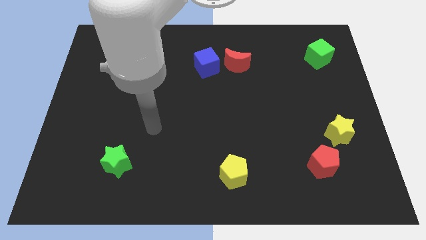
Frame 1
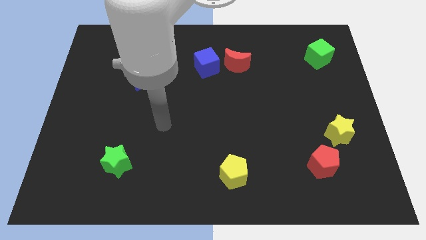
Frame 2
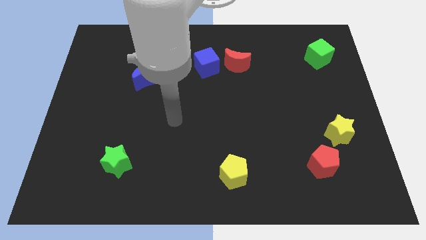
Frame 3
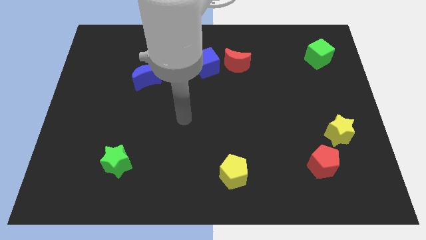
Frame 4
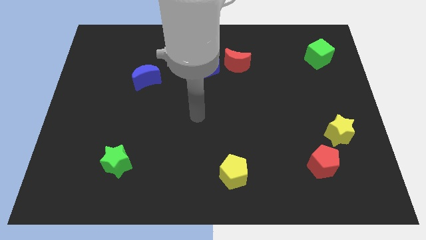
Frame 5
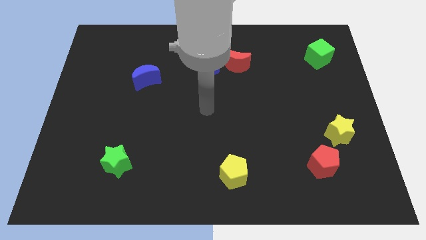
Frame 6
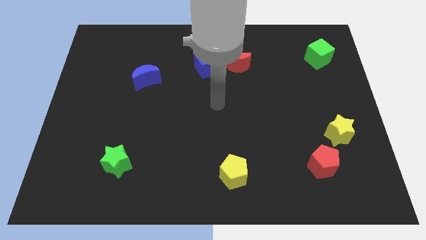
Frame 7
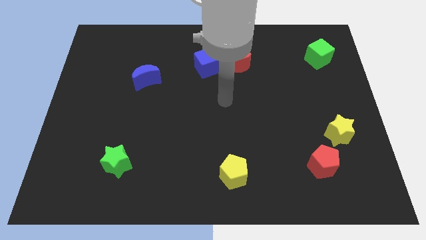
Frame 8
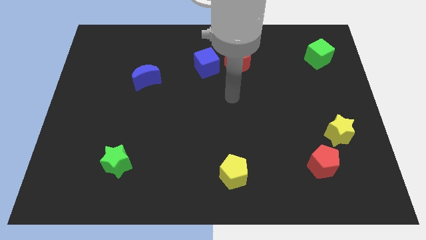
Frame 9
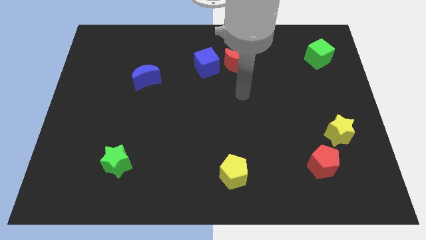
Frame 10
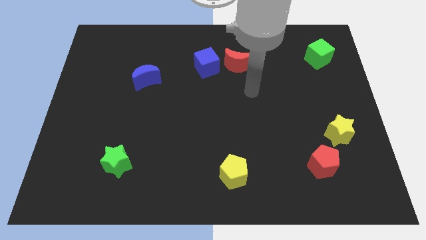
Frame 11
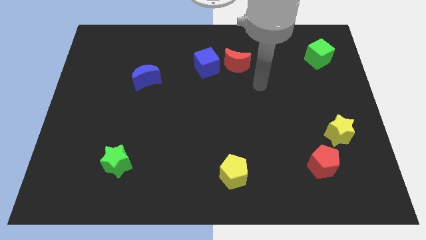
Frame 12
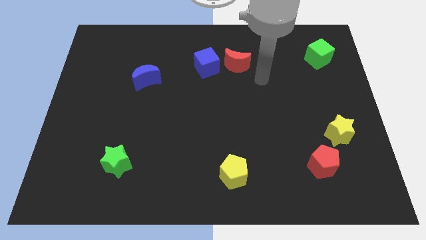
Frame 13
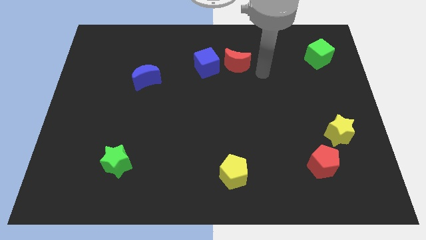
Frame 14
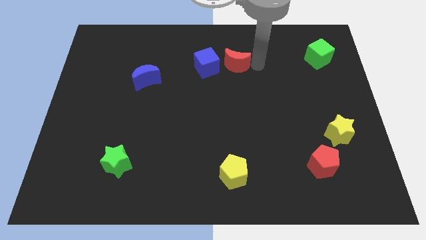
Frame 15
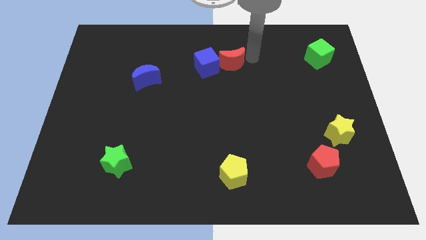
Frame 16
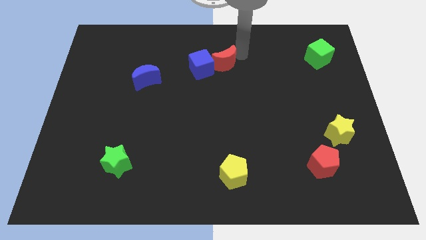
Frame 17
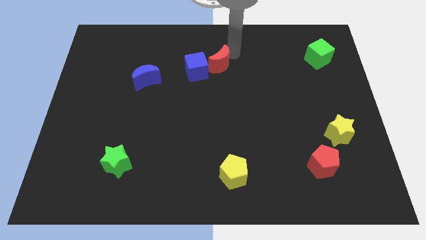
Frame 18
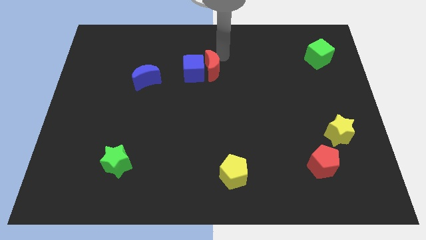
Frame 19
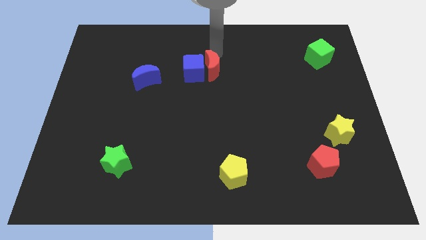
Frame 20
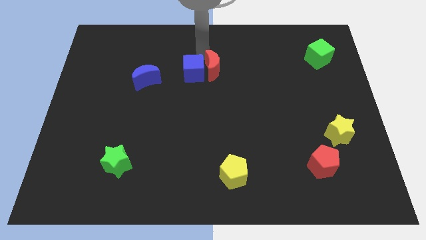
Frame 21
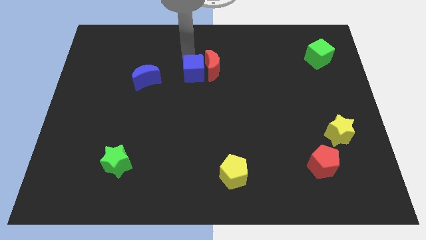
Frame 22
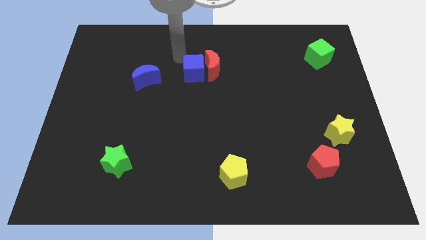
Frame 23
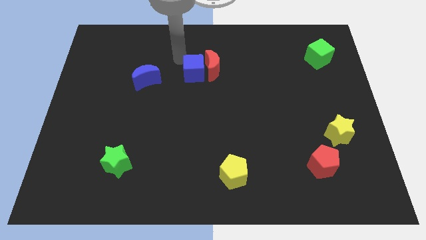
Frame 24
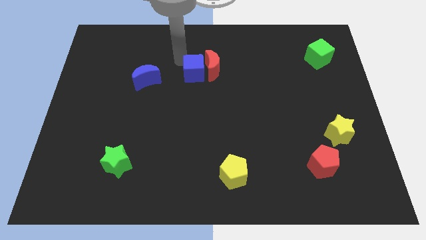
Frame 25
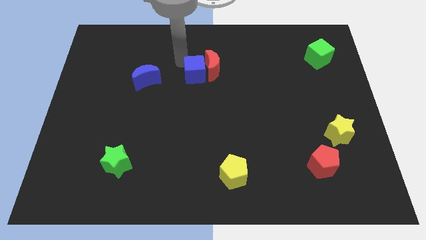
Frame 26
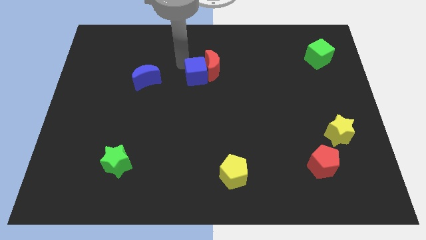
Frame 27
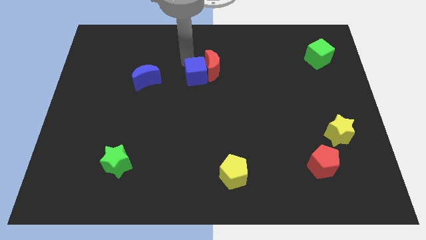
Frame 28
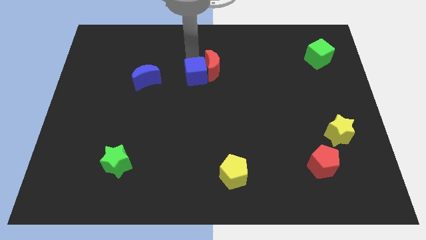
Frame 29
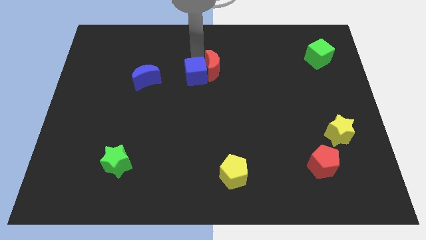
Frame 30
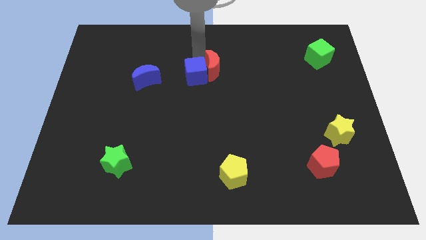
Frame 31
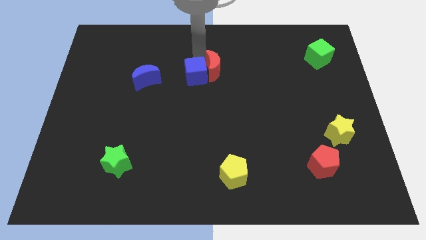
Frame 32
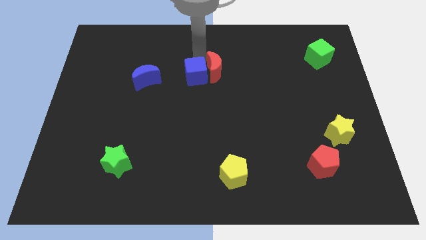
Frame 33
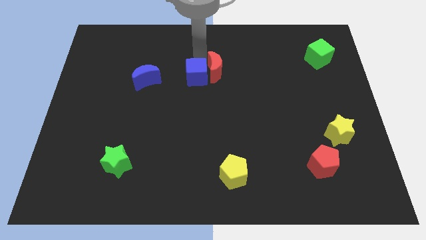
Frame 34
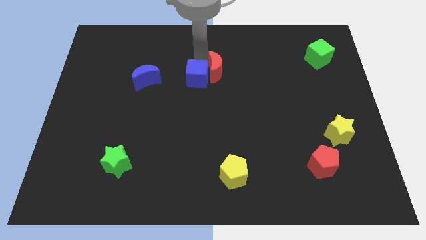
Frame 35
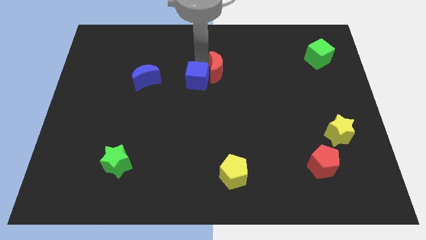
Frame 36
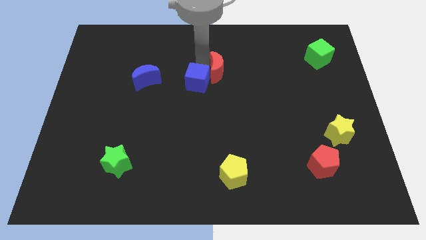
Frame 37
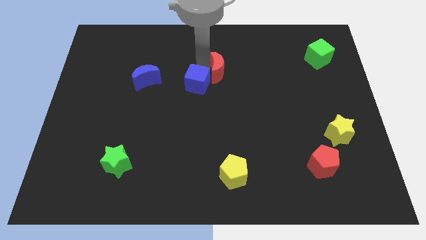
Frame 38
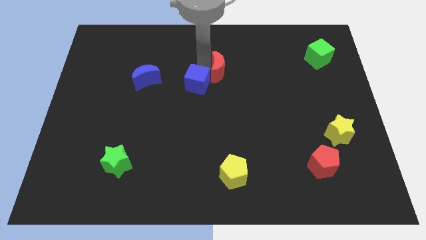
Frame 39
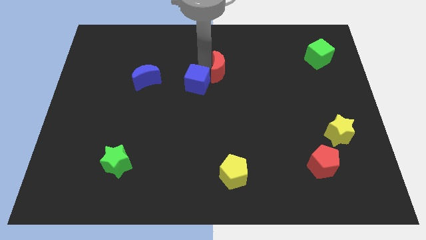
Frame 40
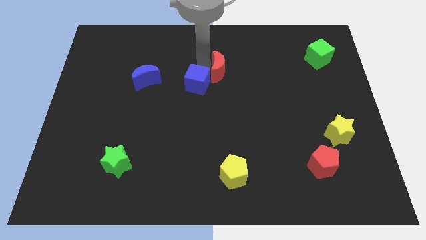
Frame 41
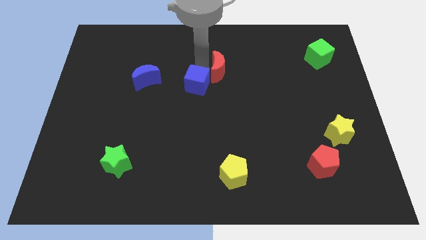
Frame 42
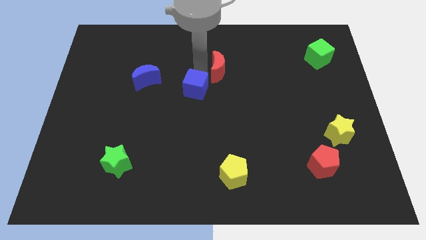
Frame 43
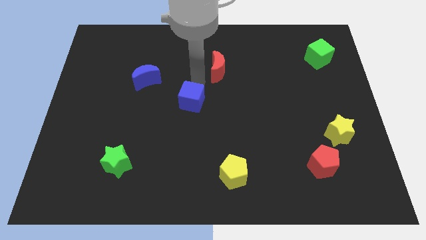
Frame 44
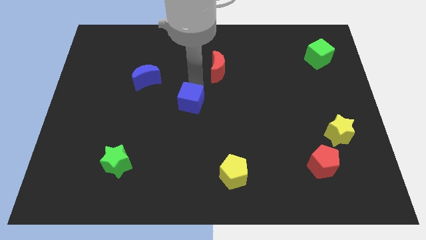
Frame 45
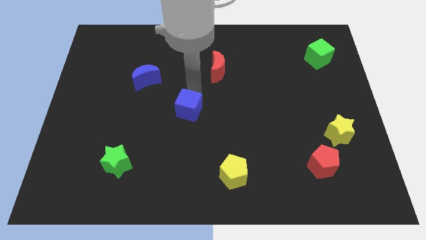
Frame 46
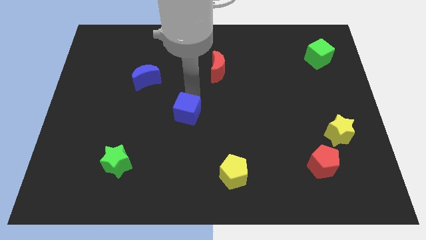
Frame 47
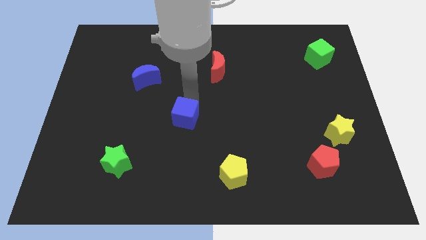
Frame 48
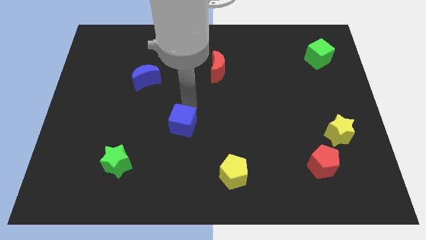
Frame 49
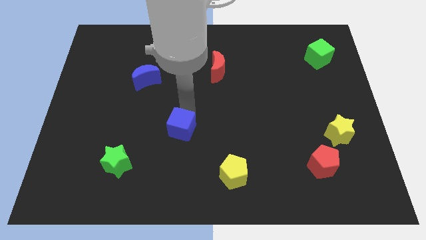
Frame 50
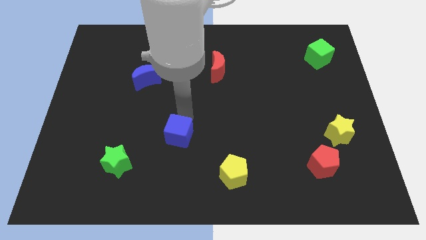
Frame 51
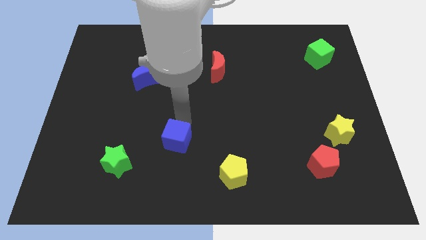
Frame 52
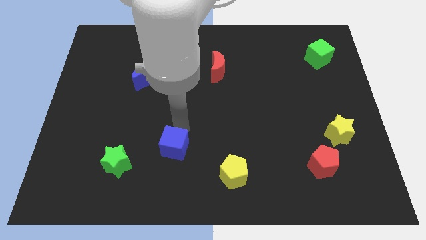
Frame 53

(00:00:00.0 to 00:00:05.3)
push the blue cube just right of the green star

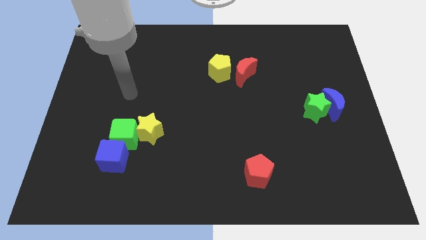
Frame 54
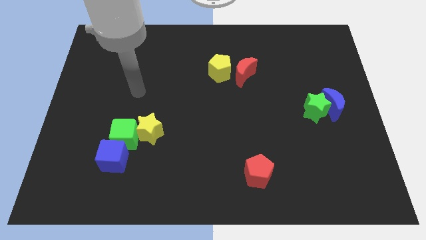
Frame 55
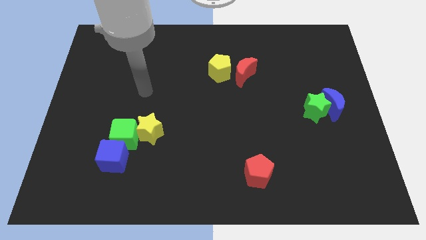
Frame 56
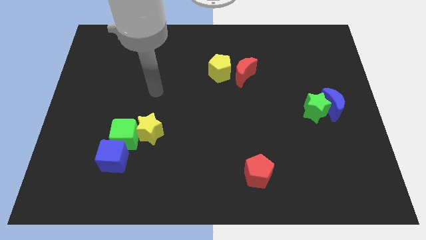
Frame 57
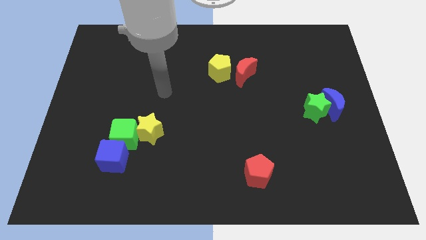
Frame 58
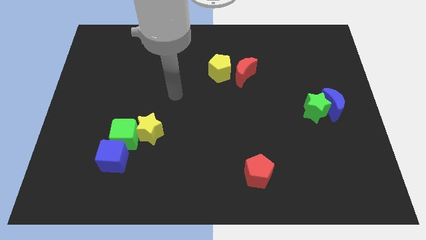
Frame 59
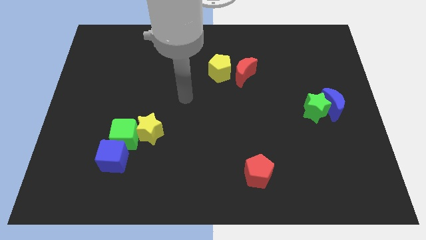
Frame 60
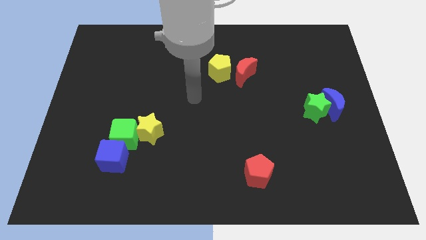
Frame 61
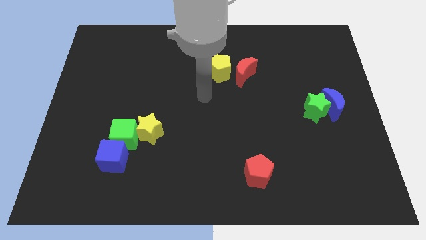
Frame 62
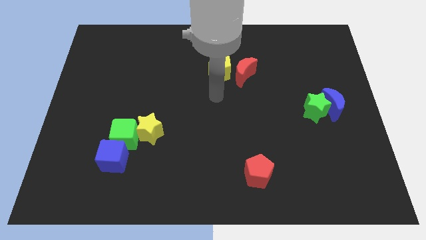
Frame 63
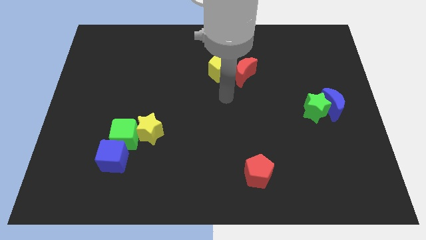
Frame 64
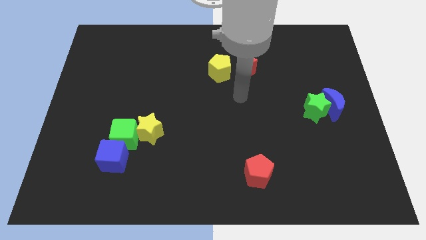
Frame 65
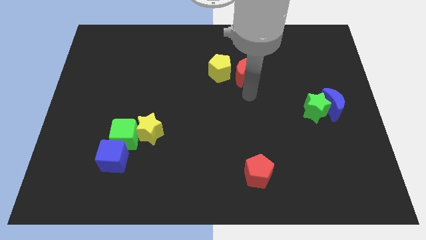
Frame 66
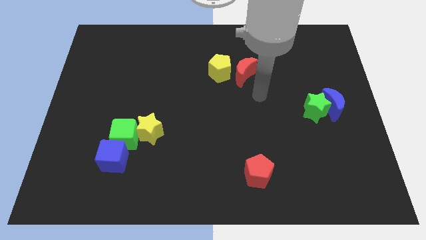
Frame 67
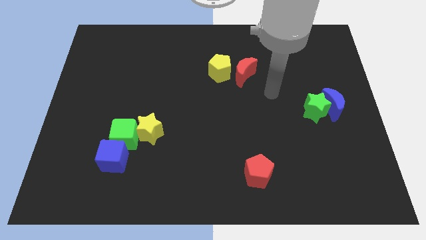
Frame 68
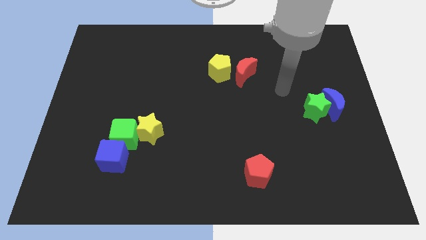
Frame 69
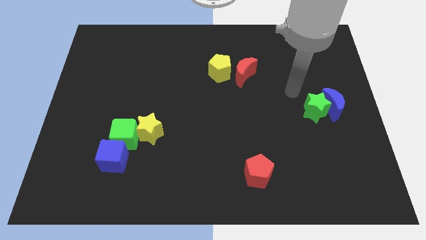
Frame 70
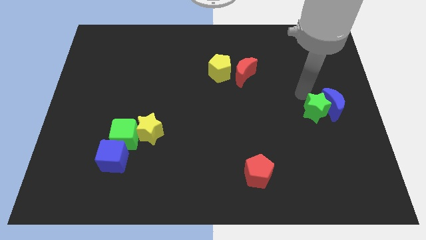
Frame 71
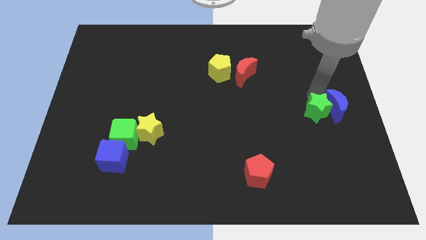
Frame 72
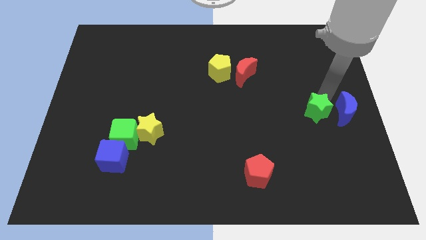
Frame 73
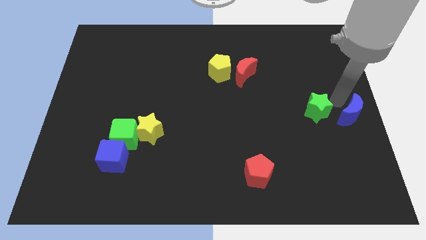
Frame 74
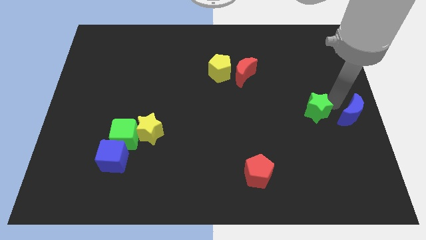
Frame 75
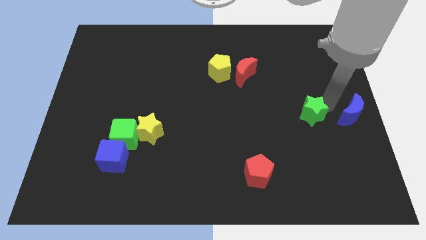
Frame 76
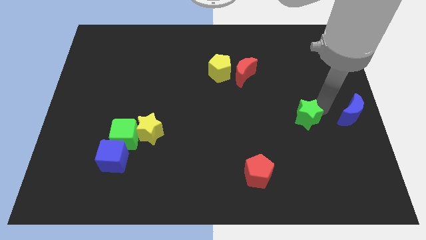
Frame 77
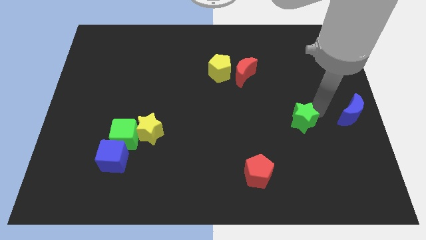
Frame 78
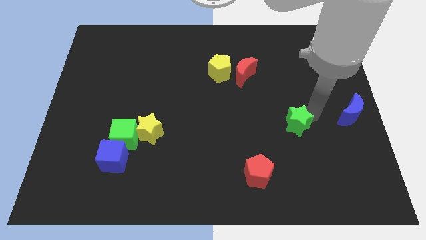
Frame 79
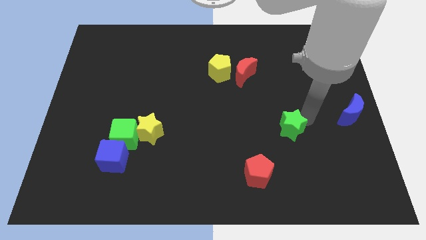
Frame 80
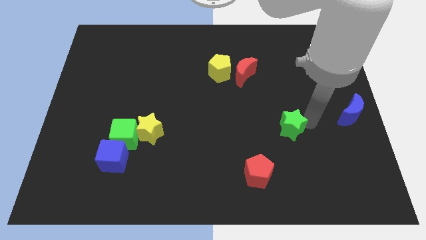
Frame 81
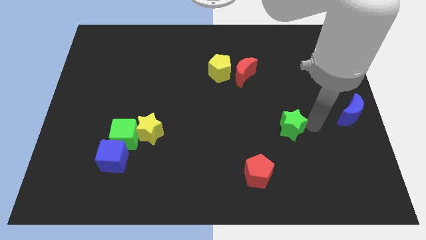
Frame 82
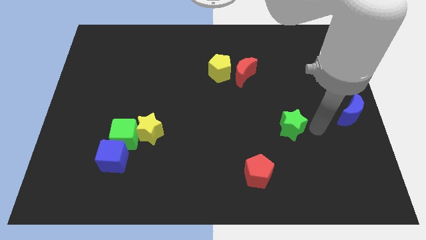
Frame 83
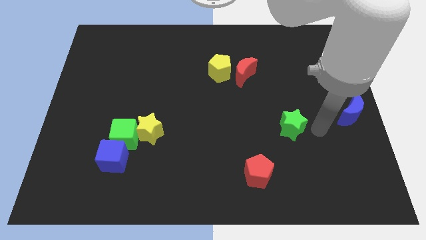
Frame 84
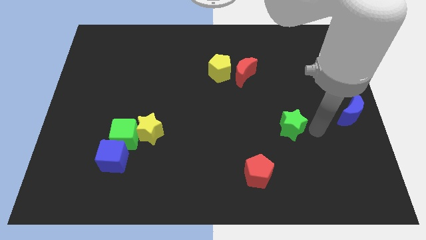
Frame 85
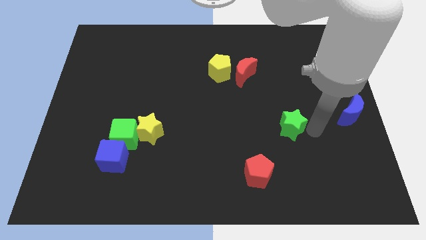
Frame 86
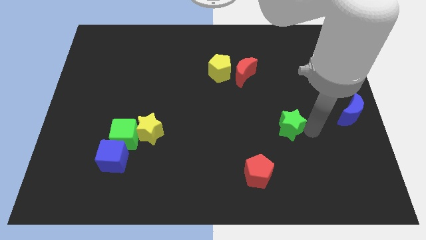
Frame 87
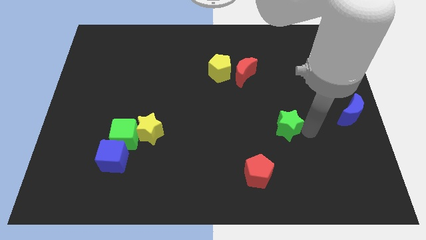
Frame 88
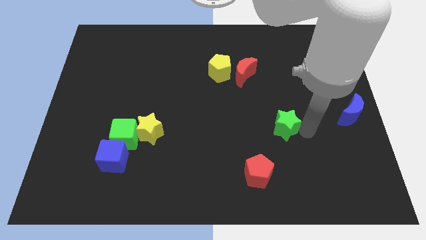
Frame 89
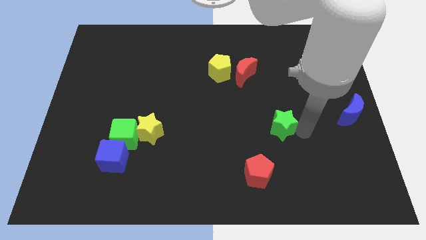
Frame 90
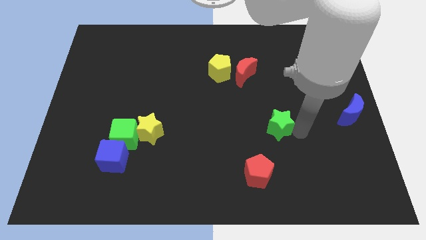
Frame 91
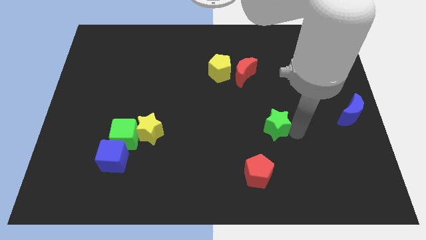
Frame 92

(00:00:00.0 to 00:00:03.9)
put the green star to the top of the red pentagon
